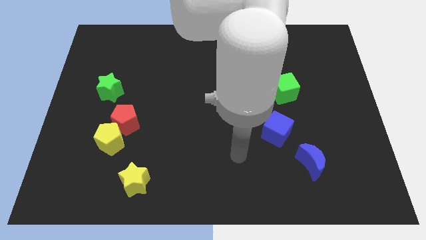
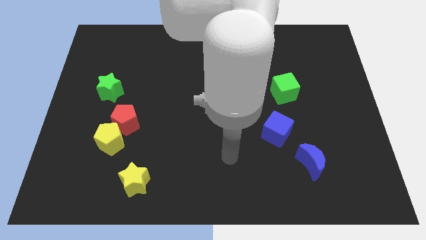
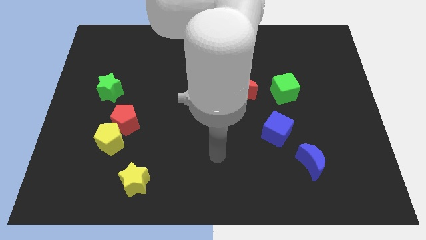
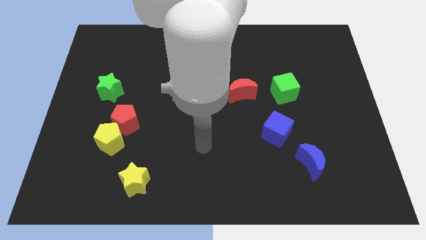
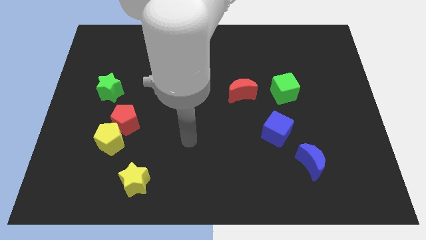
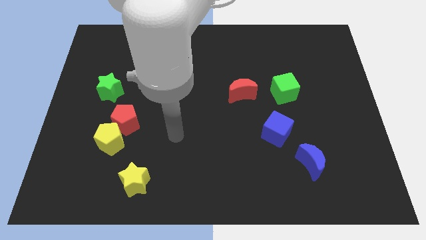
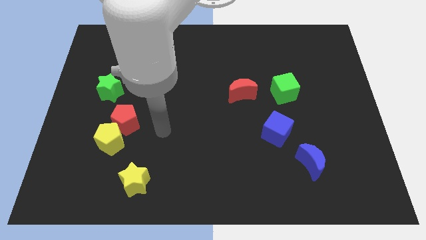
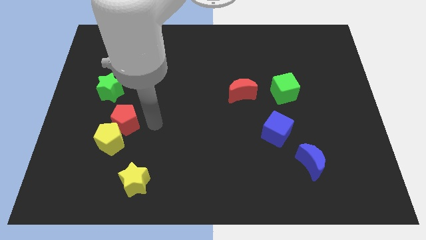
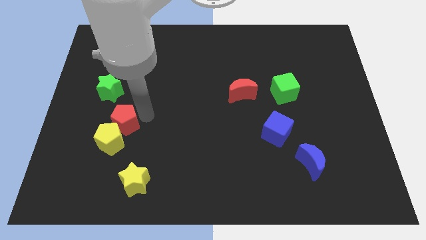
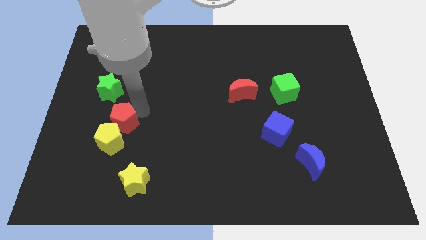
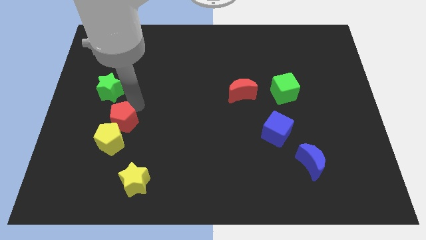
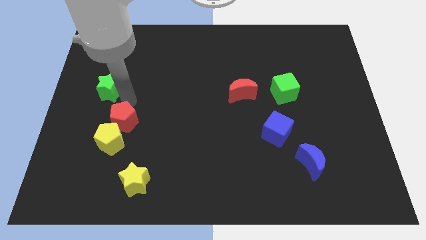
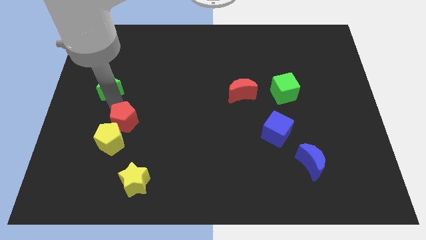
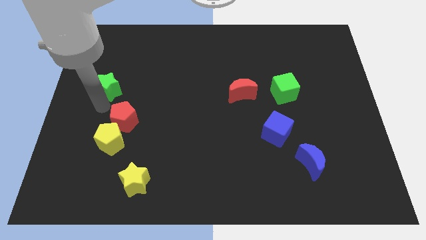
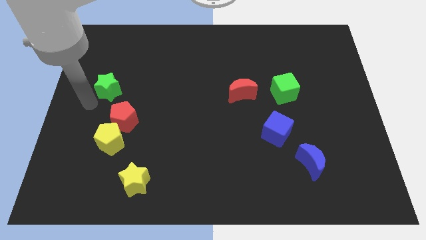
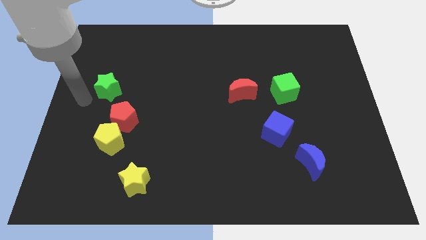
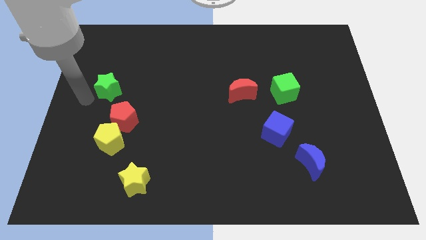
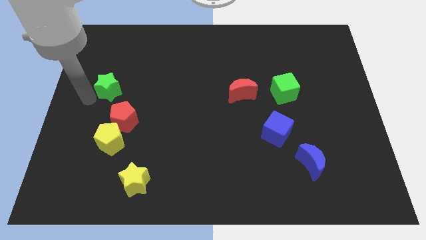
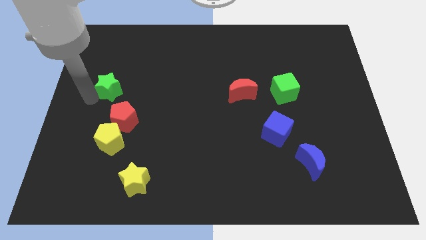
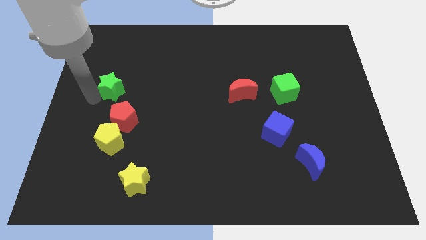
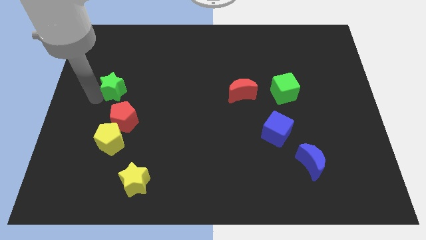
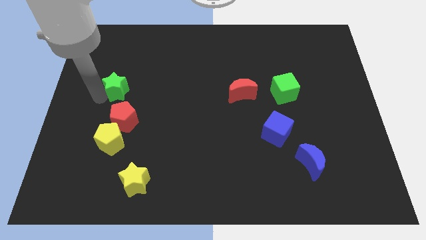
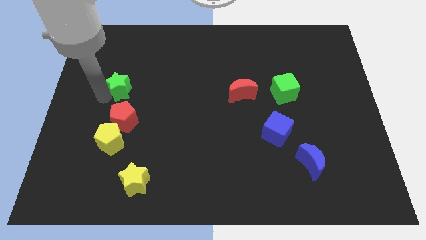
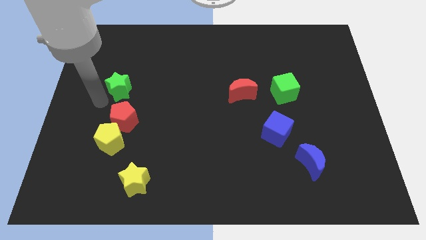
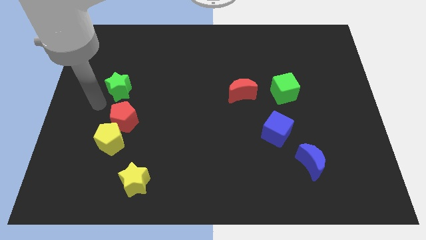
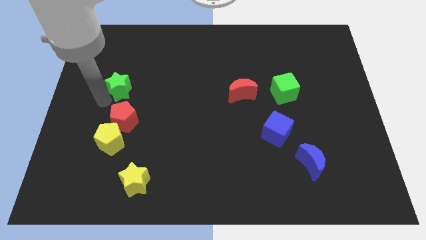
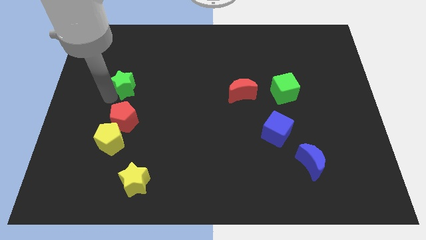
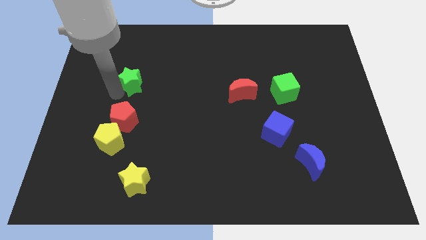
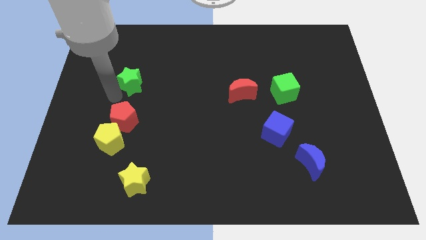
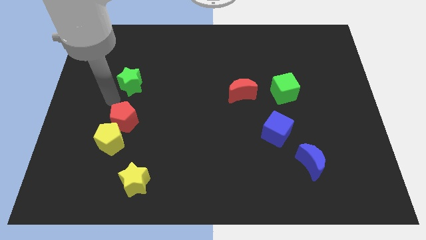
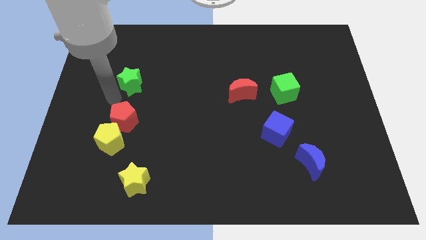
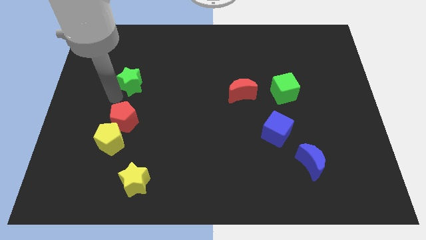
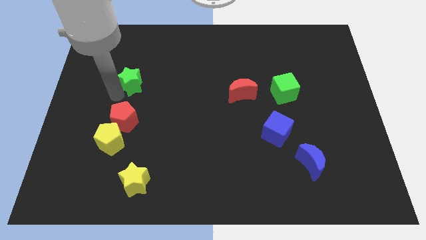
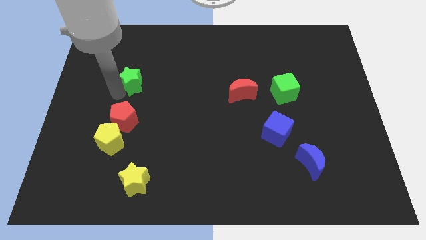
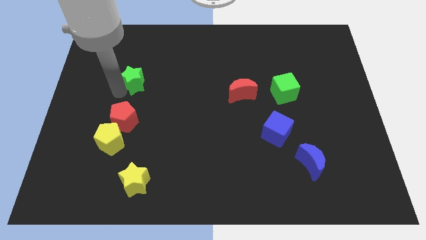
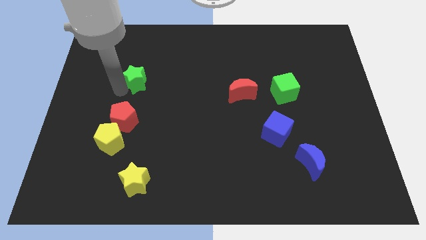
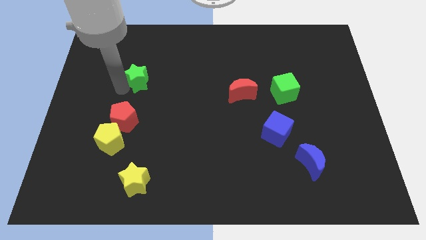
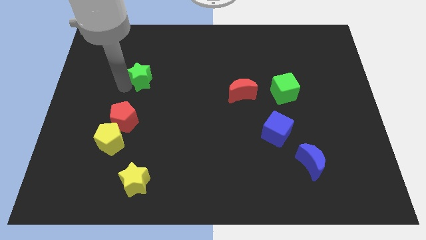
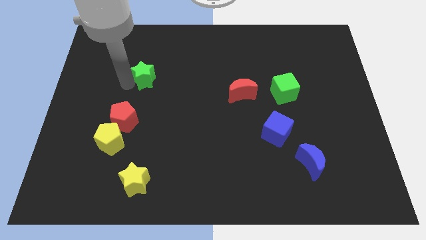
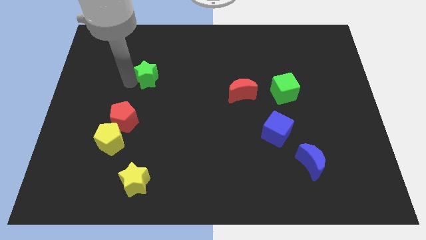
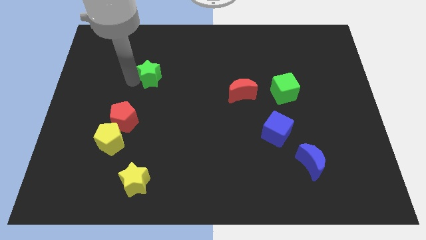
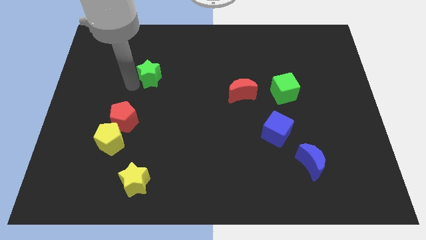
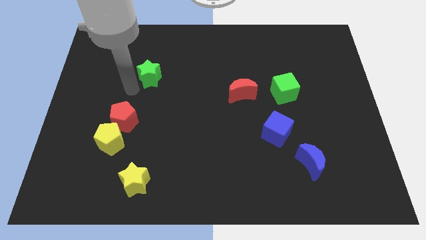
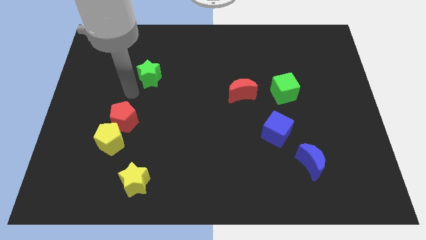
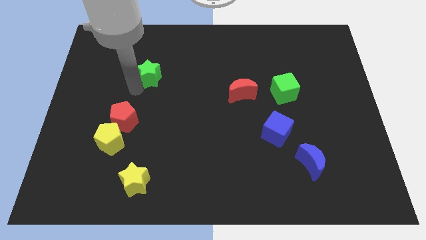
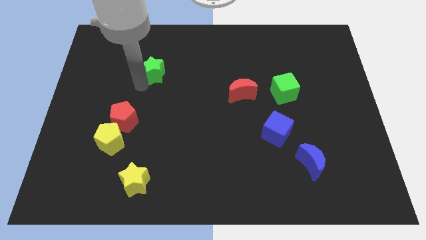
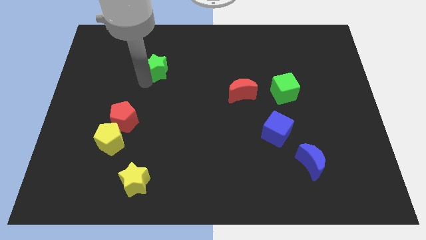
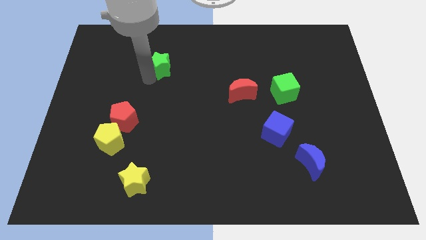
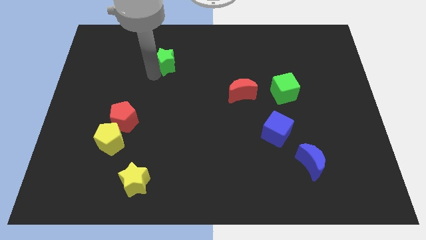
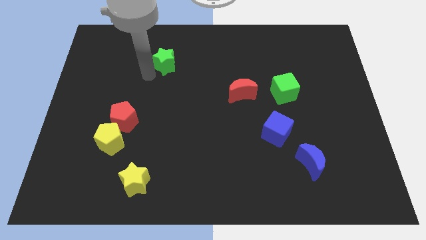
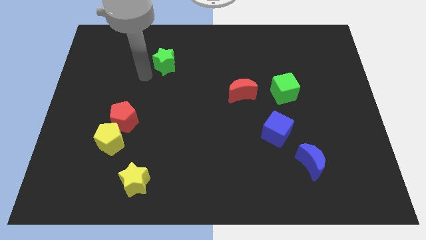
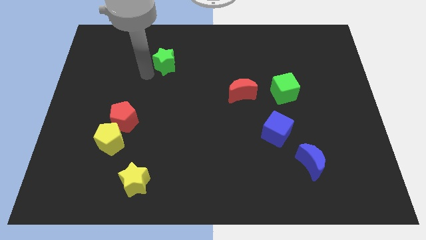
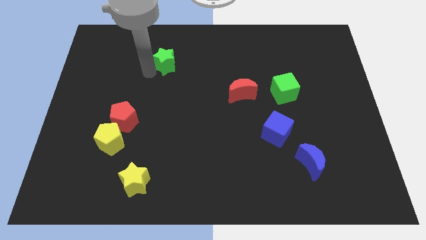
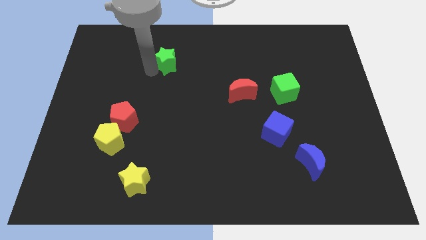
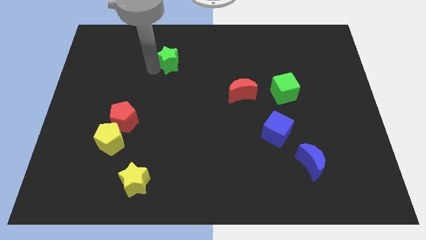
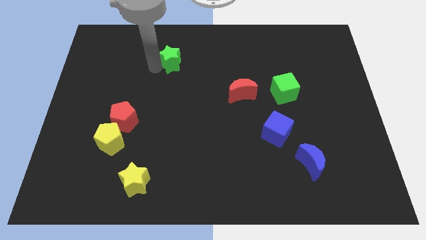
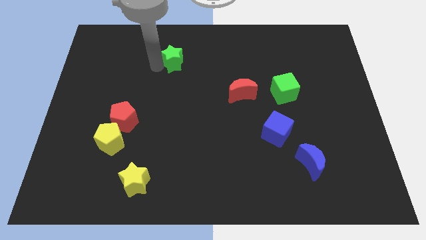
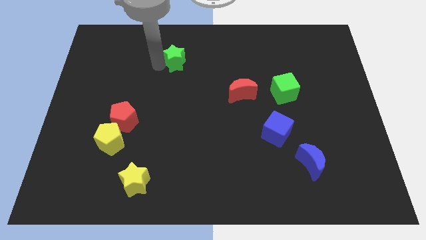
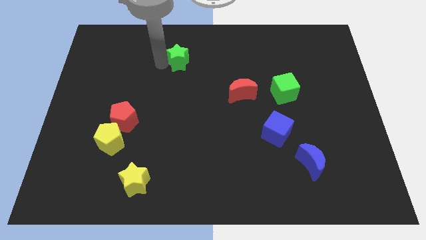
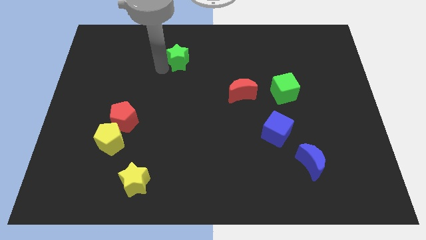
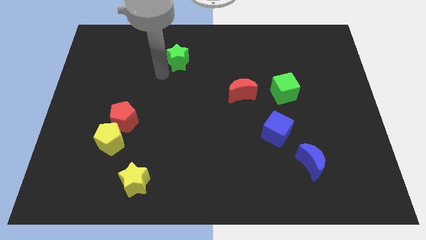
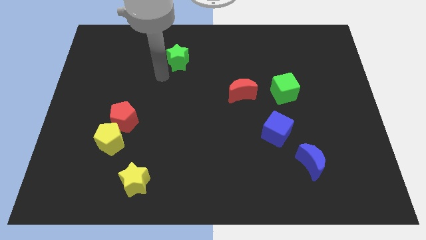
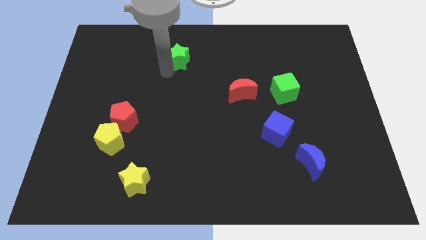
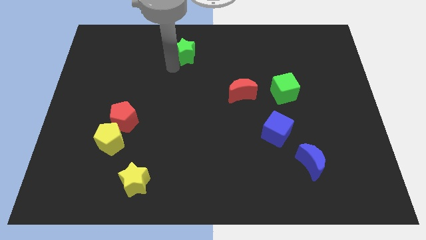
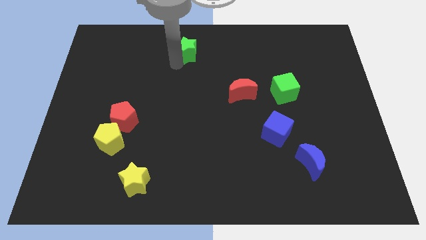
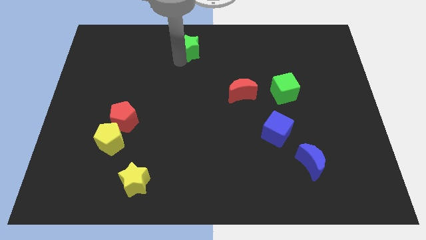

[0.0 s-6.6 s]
put the green star to the towards your base
